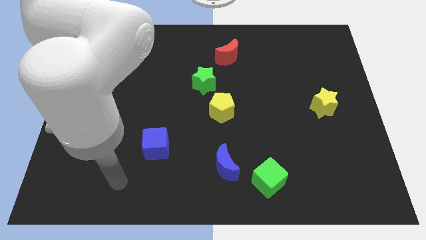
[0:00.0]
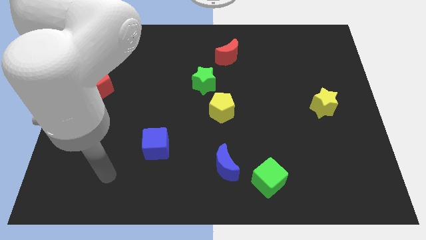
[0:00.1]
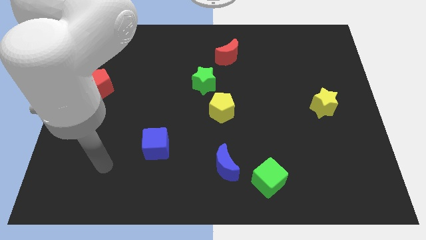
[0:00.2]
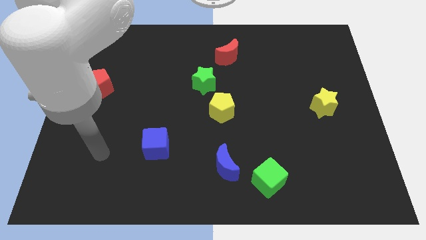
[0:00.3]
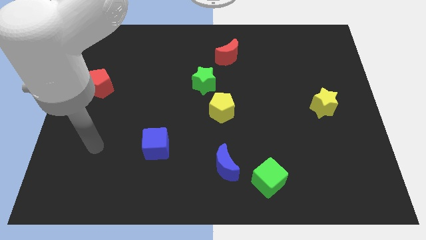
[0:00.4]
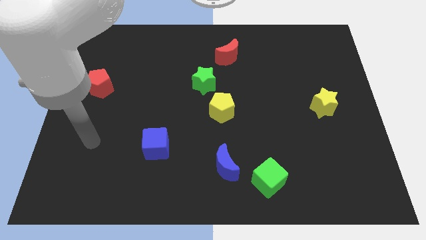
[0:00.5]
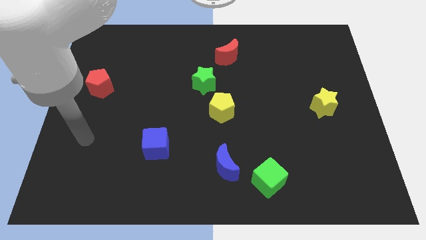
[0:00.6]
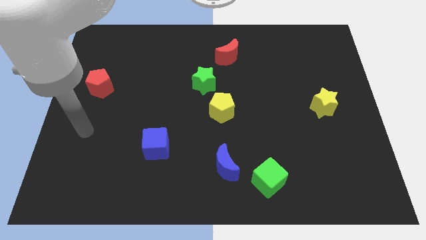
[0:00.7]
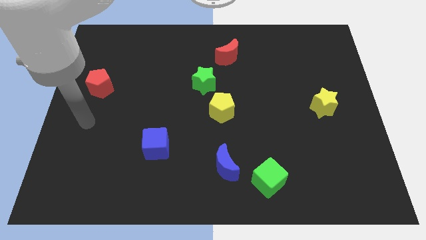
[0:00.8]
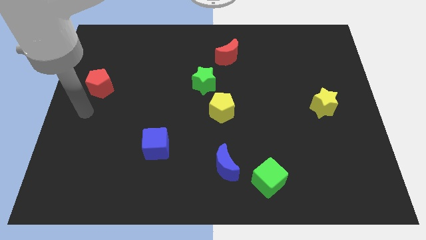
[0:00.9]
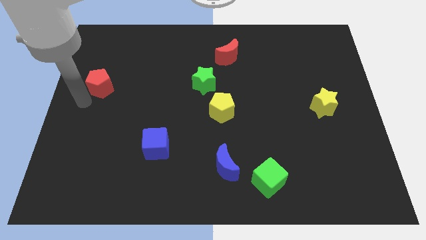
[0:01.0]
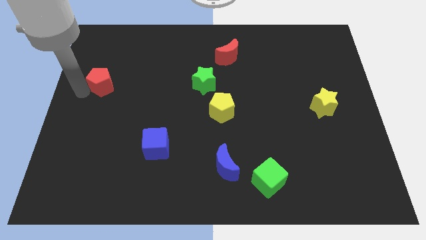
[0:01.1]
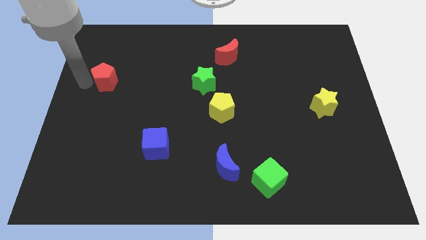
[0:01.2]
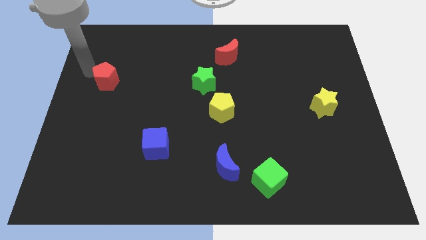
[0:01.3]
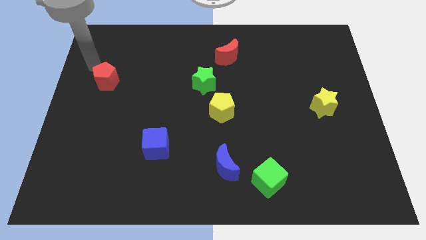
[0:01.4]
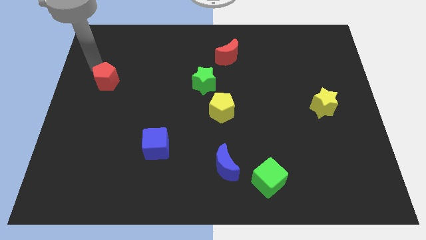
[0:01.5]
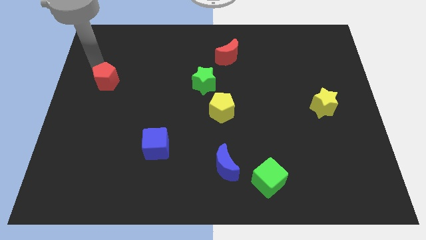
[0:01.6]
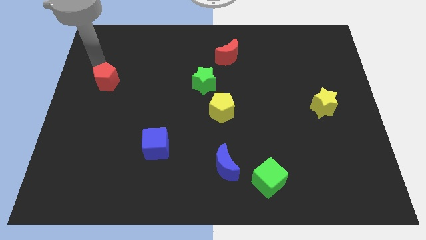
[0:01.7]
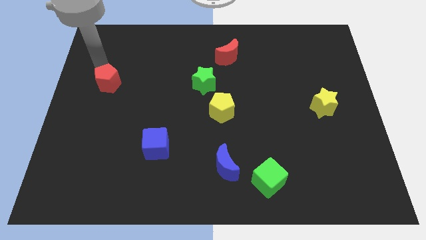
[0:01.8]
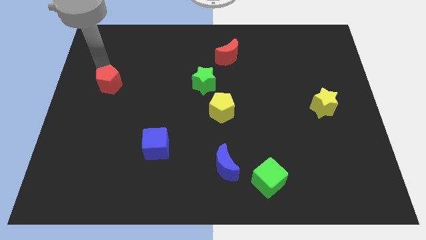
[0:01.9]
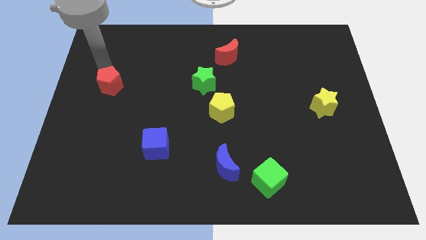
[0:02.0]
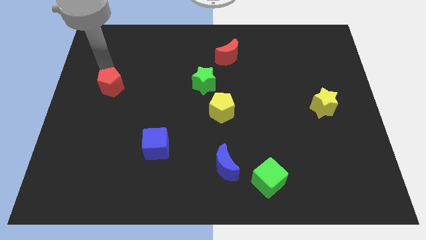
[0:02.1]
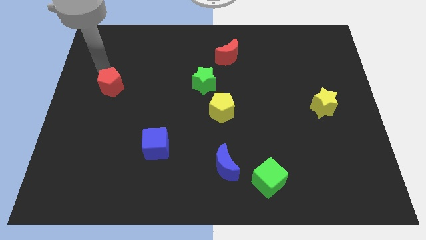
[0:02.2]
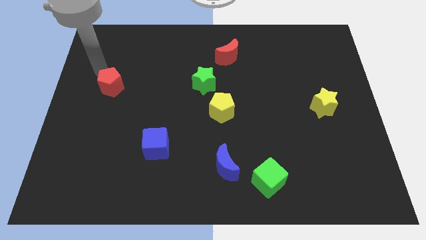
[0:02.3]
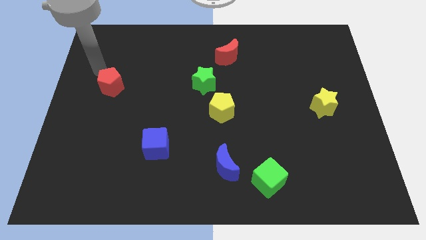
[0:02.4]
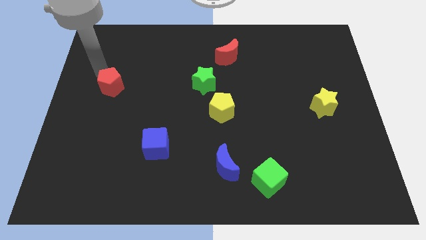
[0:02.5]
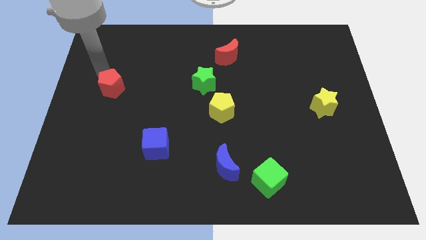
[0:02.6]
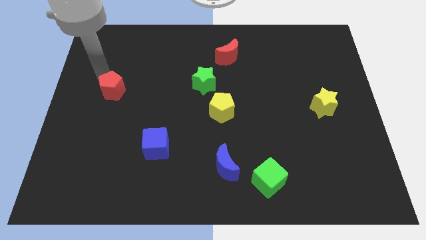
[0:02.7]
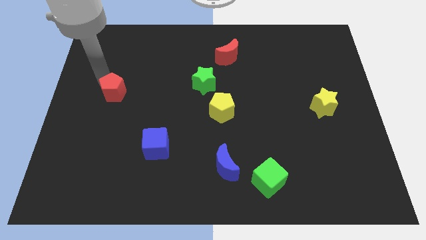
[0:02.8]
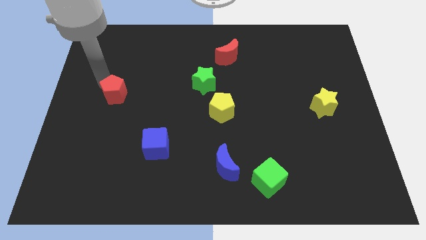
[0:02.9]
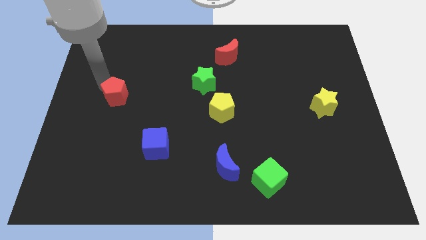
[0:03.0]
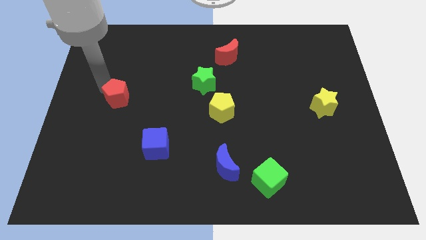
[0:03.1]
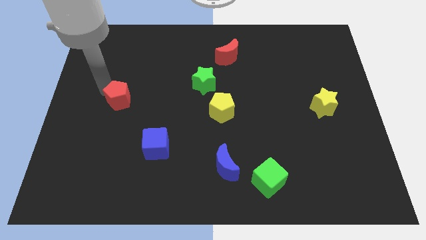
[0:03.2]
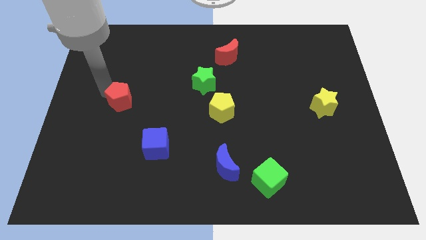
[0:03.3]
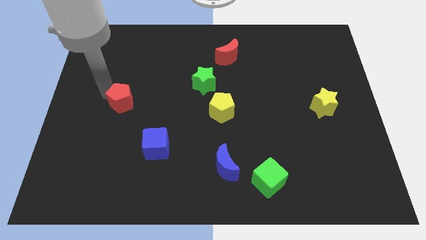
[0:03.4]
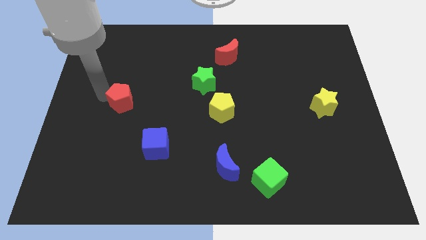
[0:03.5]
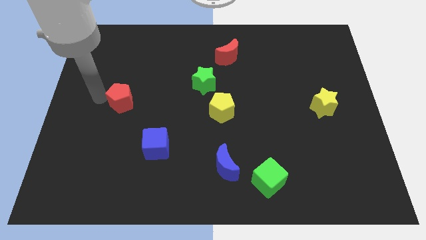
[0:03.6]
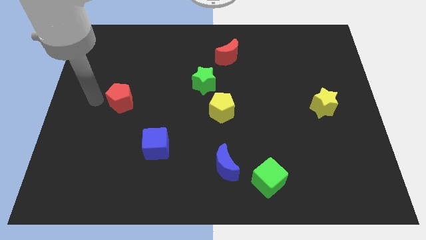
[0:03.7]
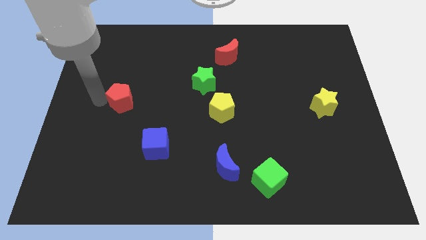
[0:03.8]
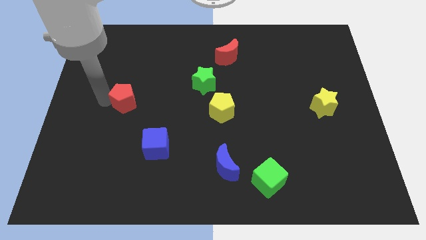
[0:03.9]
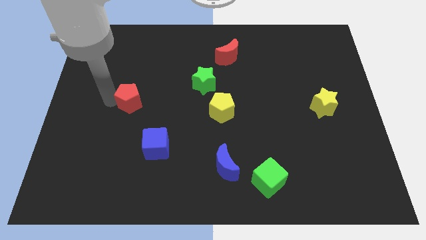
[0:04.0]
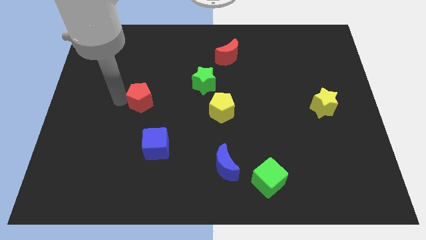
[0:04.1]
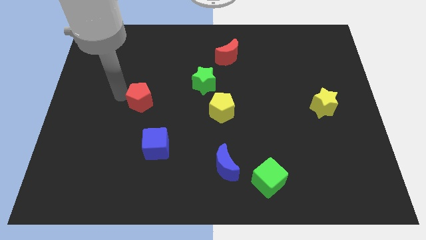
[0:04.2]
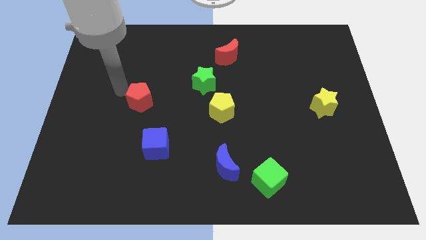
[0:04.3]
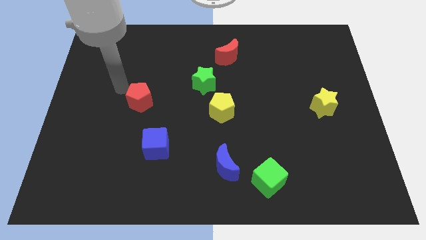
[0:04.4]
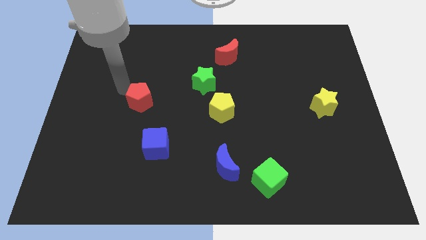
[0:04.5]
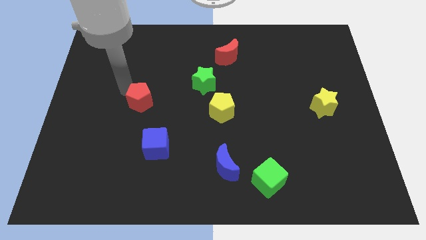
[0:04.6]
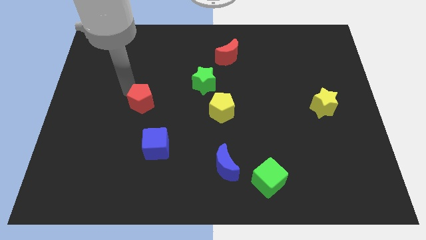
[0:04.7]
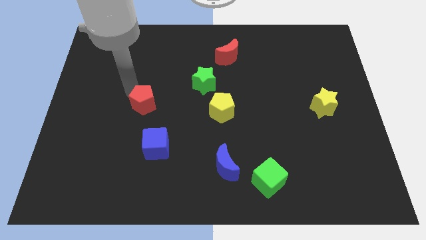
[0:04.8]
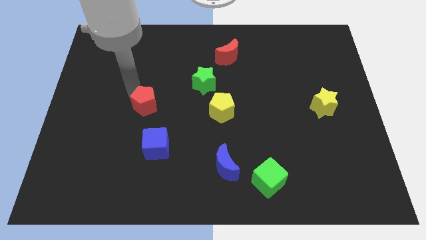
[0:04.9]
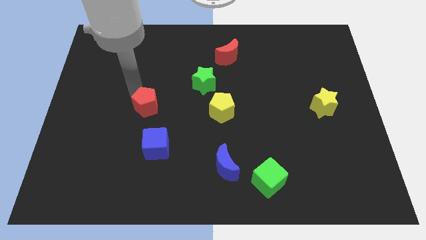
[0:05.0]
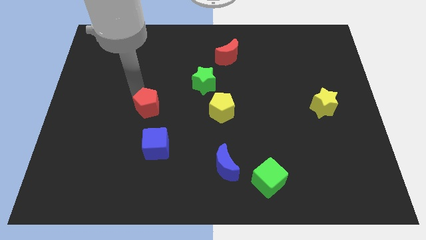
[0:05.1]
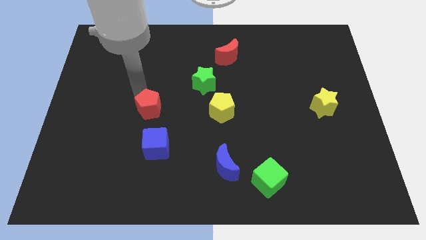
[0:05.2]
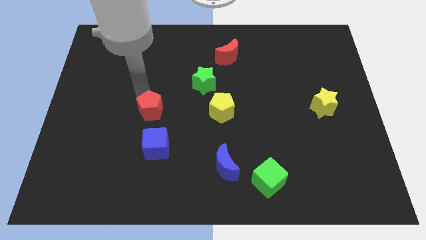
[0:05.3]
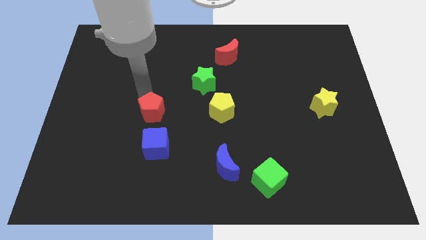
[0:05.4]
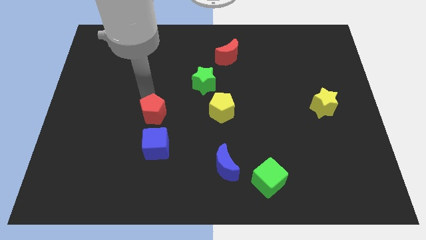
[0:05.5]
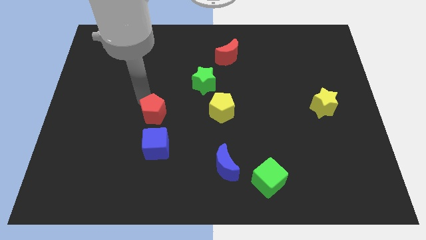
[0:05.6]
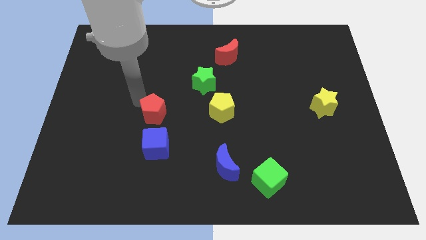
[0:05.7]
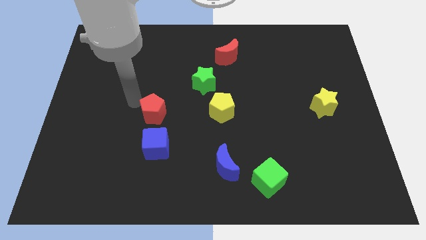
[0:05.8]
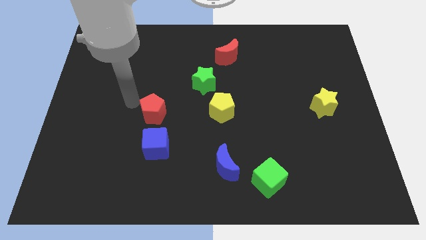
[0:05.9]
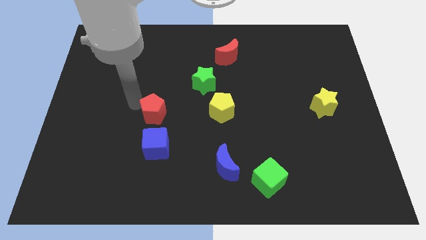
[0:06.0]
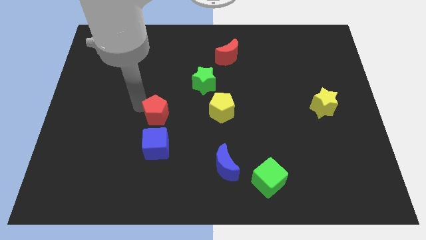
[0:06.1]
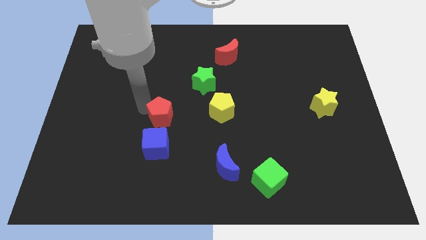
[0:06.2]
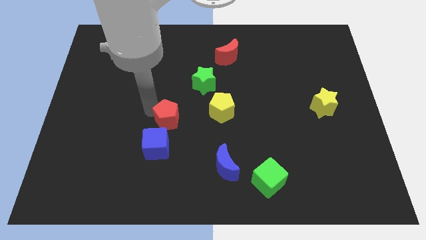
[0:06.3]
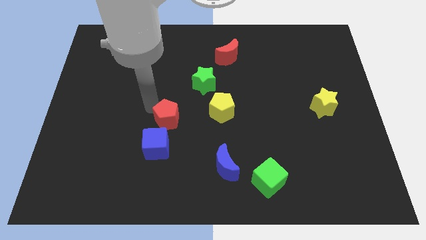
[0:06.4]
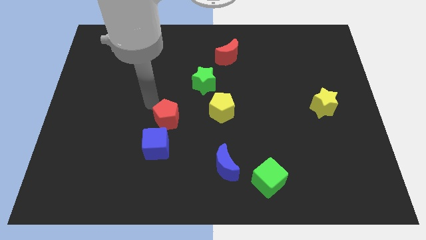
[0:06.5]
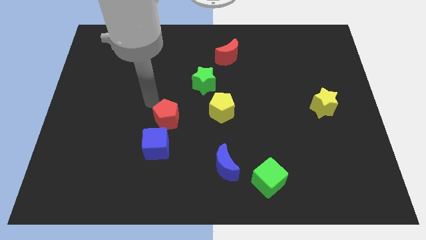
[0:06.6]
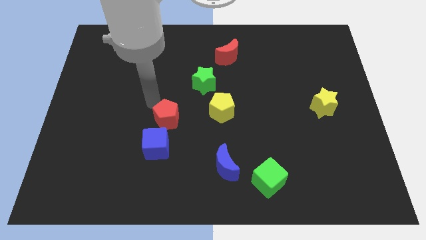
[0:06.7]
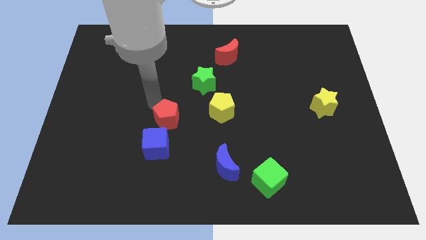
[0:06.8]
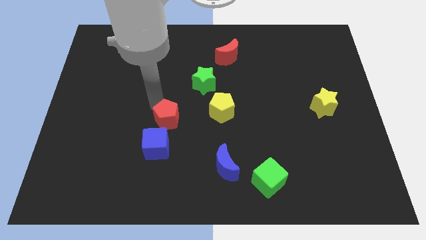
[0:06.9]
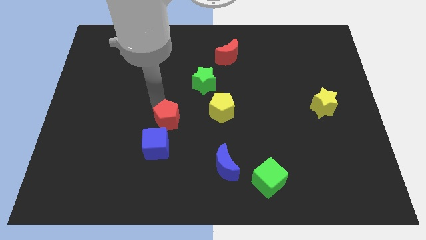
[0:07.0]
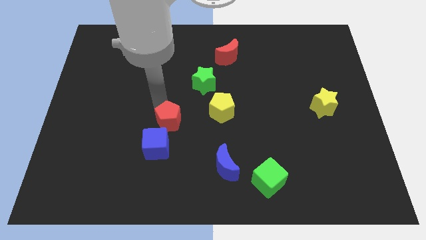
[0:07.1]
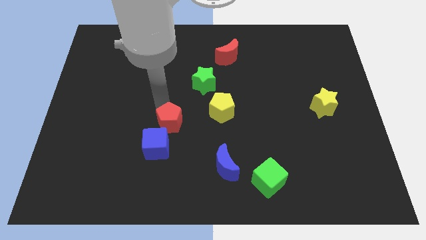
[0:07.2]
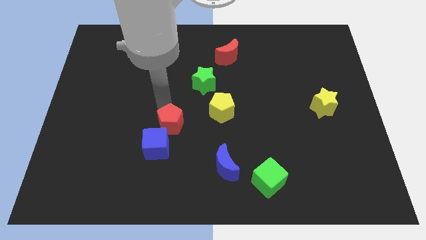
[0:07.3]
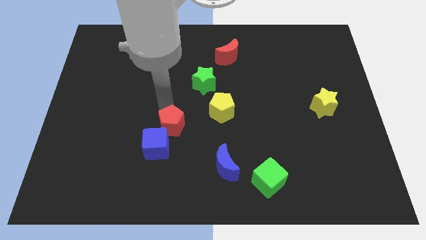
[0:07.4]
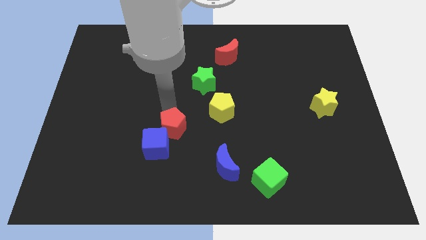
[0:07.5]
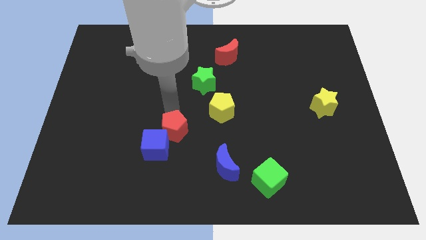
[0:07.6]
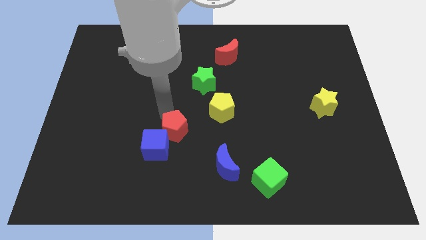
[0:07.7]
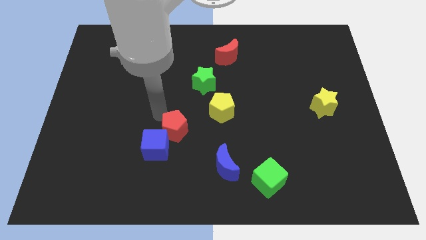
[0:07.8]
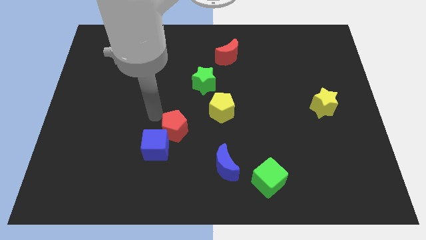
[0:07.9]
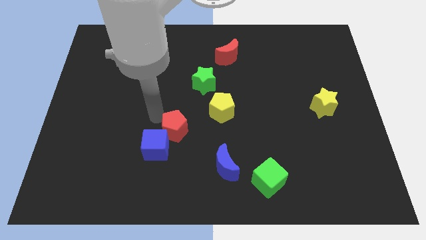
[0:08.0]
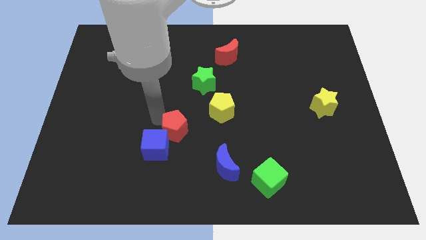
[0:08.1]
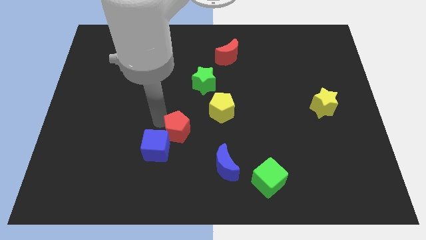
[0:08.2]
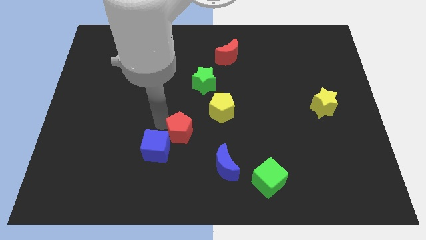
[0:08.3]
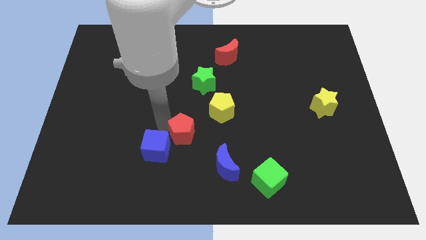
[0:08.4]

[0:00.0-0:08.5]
put the red pentagon diagonally up and to the left of the blue moon
